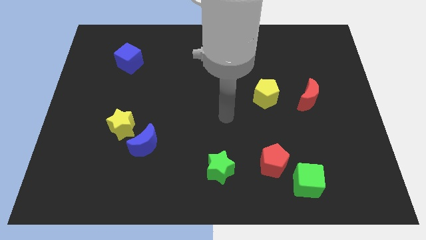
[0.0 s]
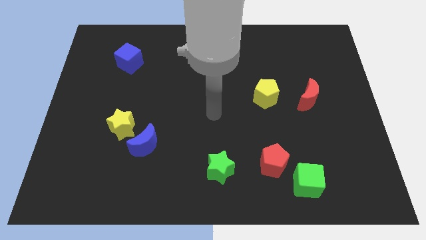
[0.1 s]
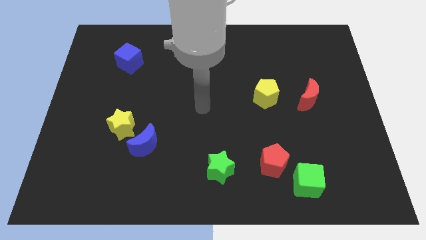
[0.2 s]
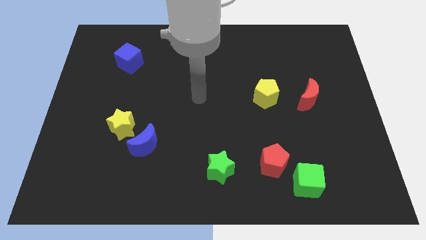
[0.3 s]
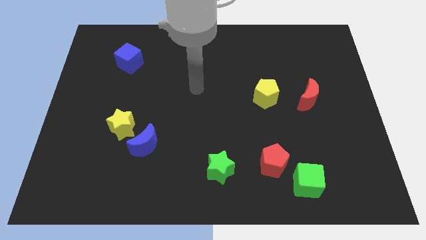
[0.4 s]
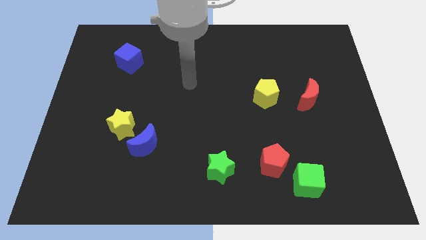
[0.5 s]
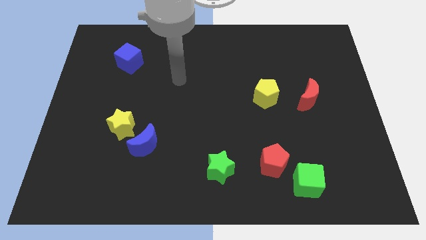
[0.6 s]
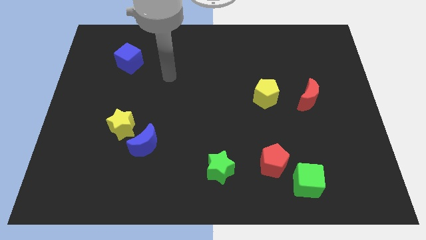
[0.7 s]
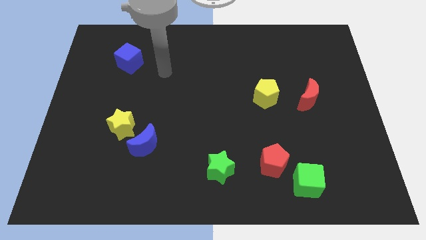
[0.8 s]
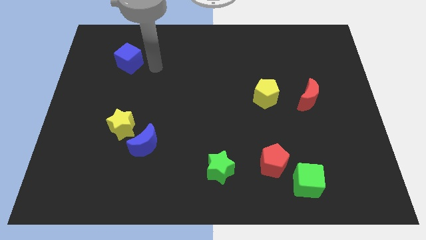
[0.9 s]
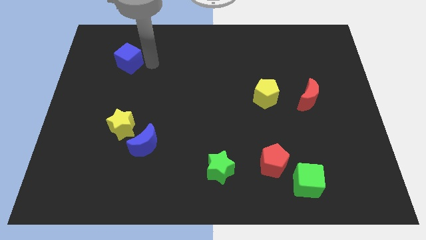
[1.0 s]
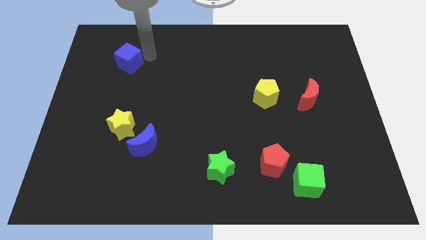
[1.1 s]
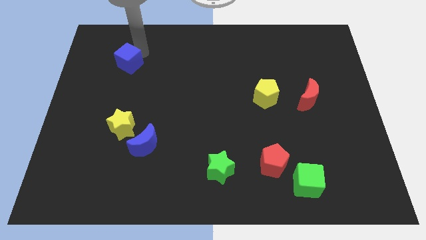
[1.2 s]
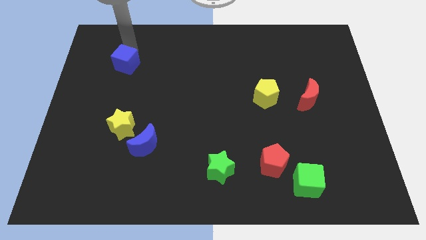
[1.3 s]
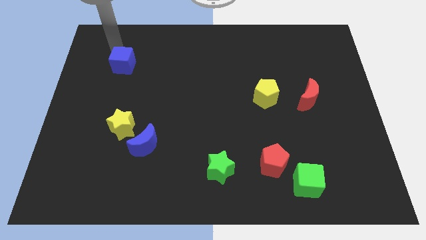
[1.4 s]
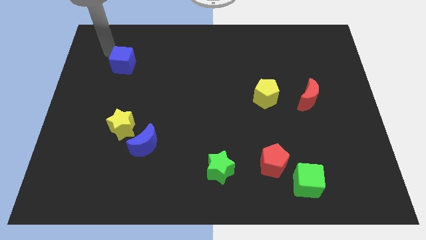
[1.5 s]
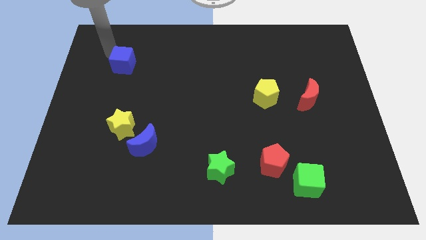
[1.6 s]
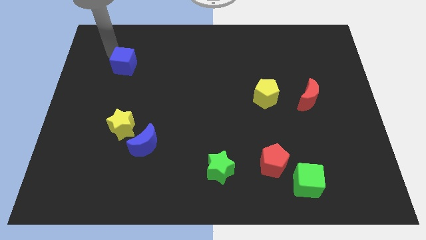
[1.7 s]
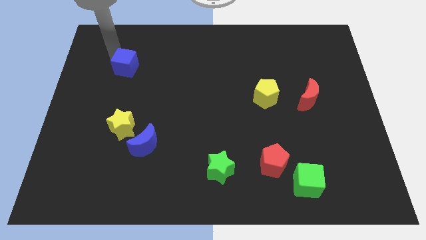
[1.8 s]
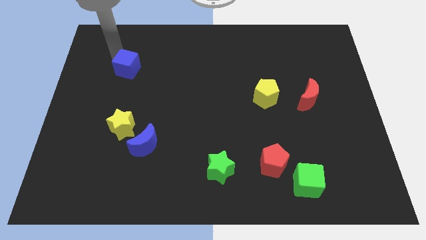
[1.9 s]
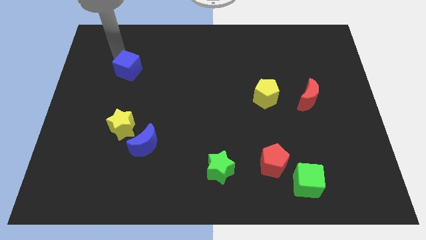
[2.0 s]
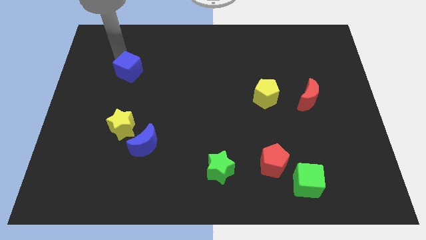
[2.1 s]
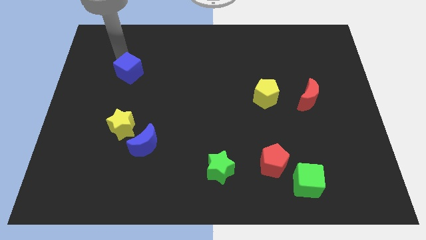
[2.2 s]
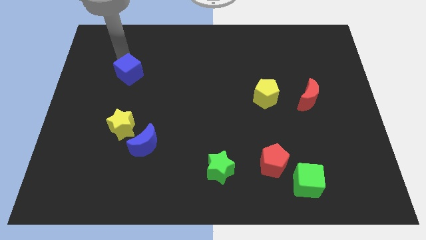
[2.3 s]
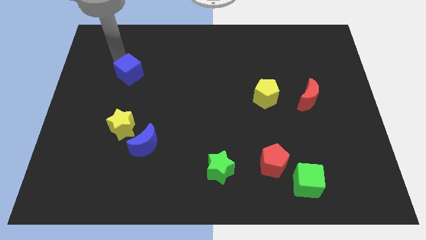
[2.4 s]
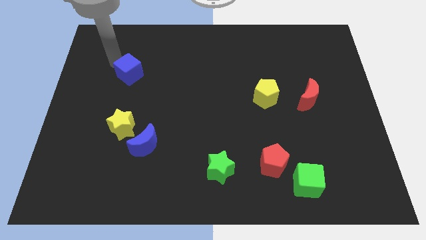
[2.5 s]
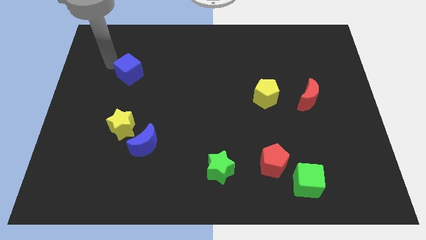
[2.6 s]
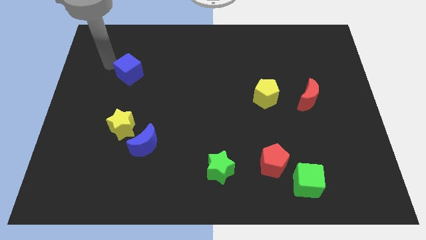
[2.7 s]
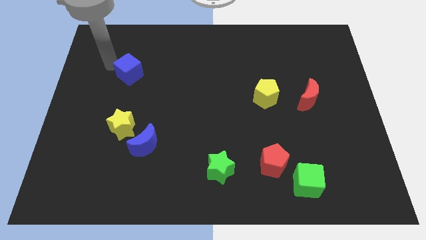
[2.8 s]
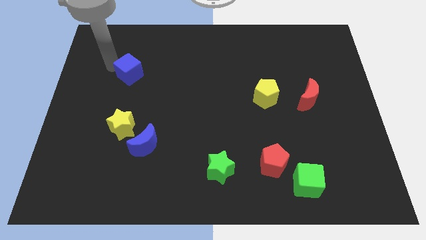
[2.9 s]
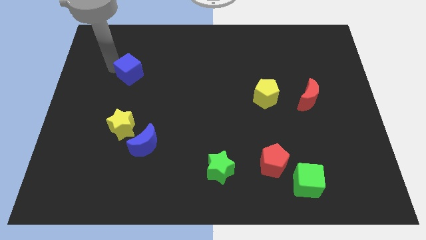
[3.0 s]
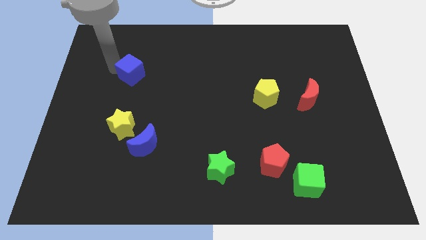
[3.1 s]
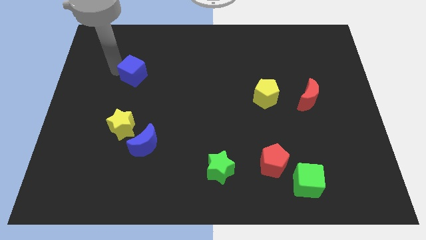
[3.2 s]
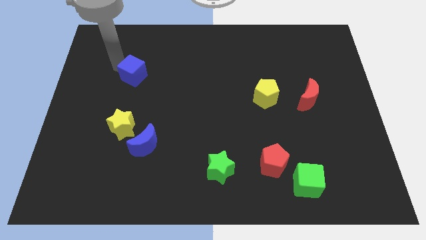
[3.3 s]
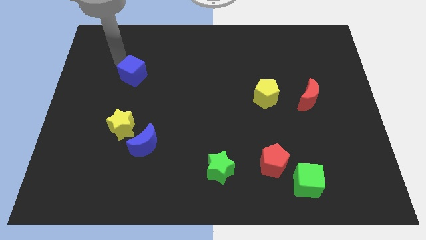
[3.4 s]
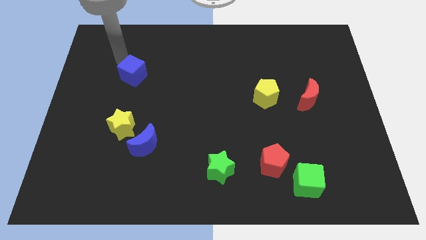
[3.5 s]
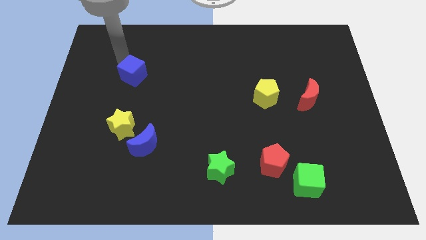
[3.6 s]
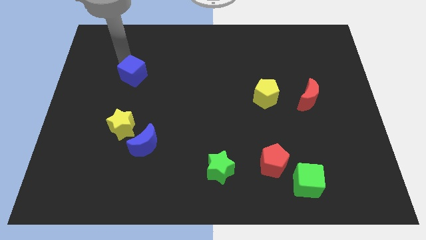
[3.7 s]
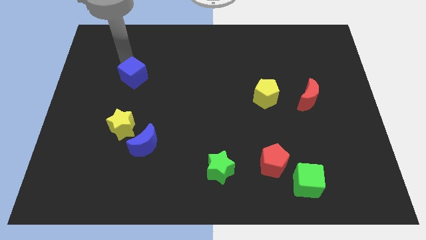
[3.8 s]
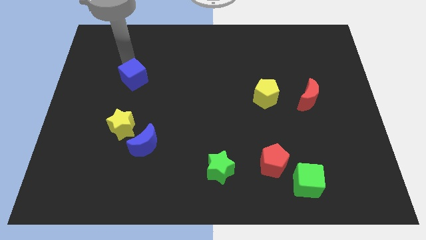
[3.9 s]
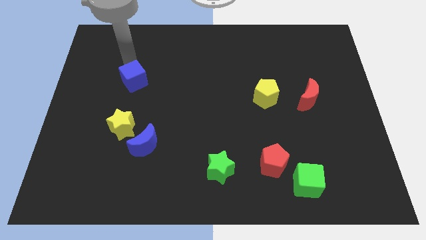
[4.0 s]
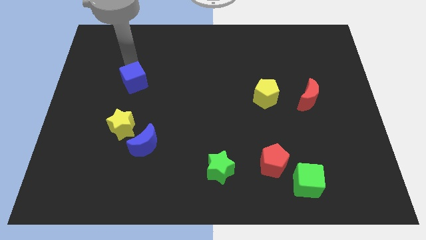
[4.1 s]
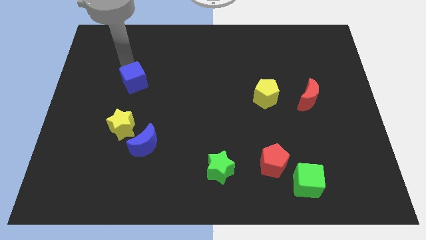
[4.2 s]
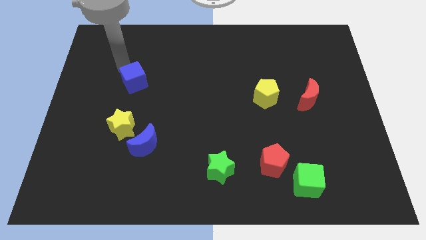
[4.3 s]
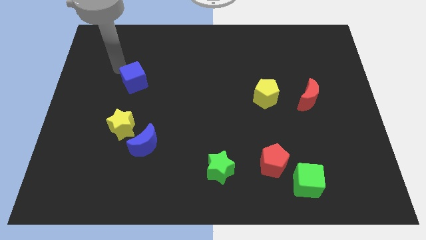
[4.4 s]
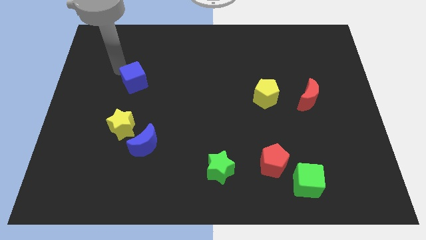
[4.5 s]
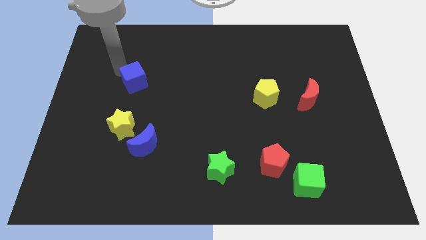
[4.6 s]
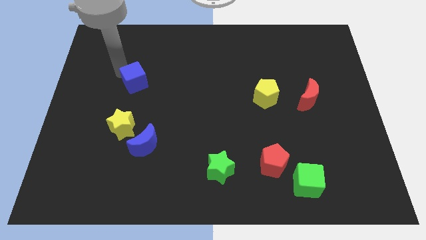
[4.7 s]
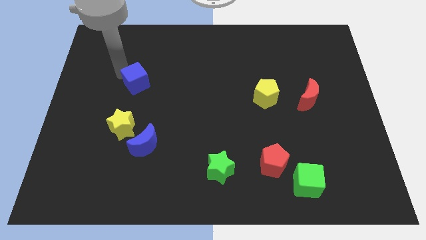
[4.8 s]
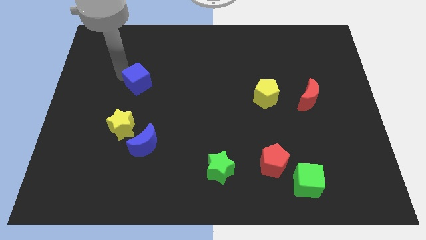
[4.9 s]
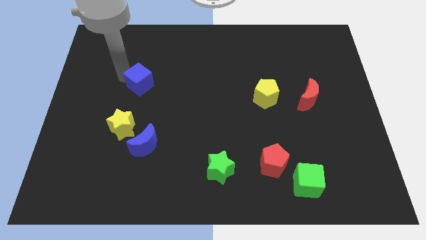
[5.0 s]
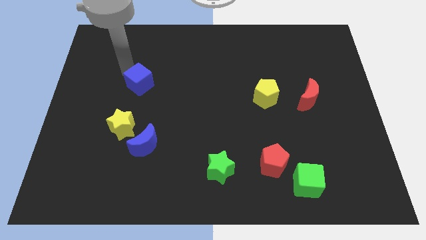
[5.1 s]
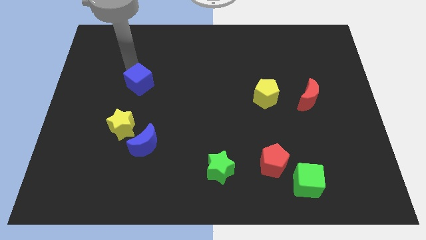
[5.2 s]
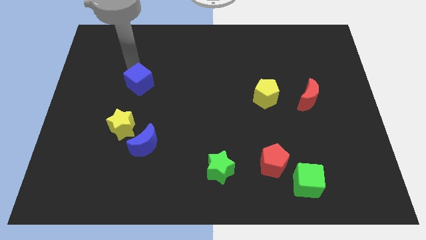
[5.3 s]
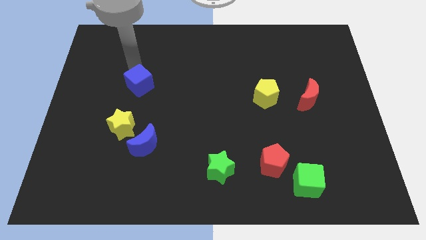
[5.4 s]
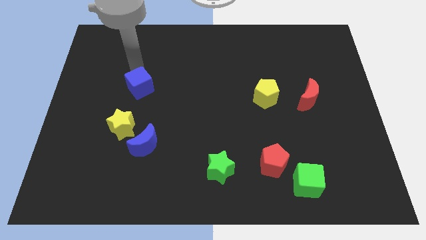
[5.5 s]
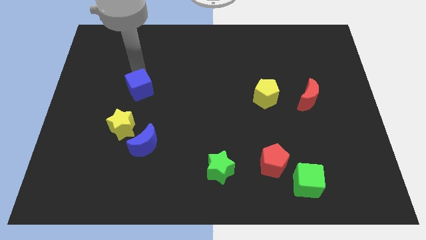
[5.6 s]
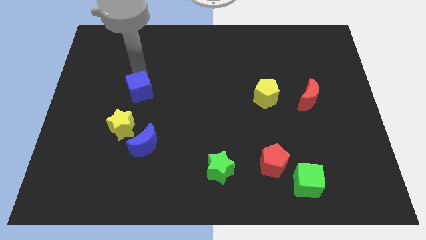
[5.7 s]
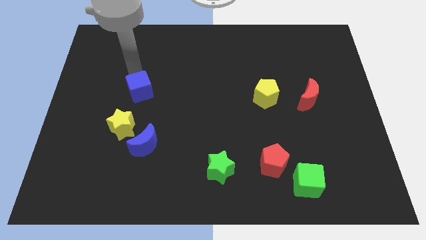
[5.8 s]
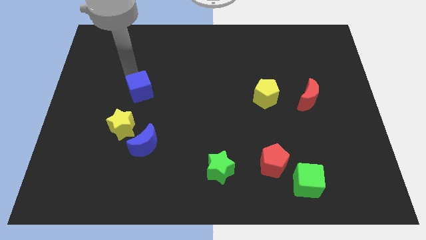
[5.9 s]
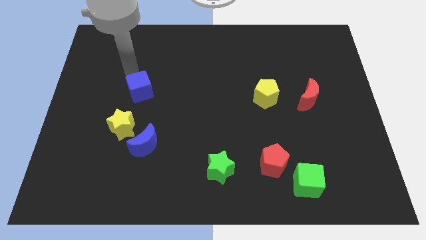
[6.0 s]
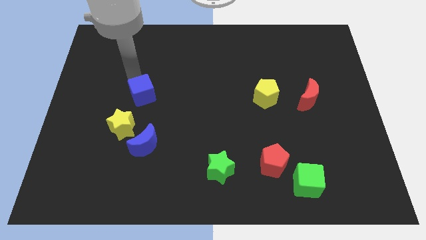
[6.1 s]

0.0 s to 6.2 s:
put the blue cube above the blue moon

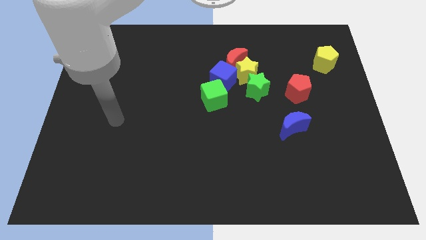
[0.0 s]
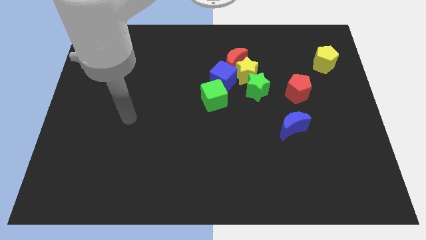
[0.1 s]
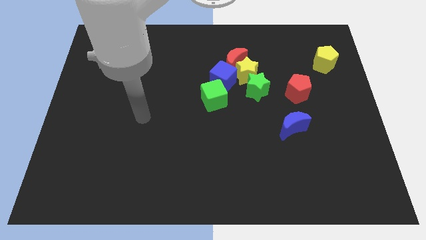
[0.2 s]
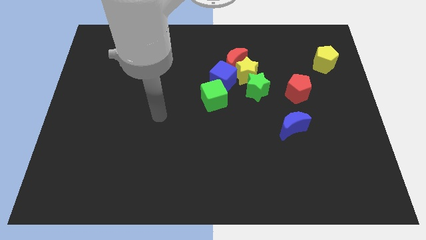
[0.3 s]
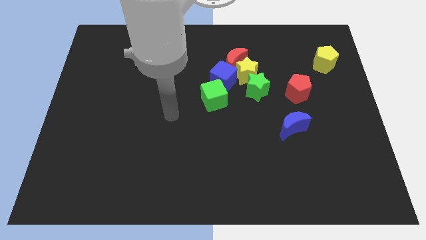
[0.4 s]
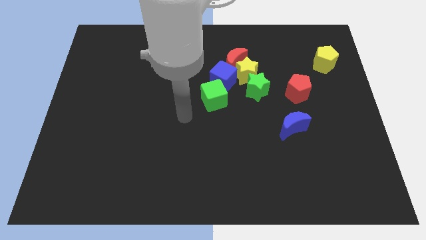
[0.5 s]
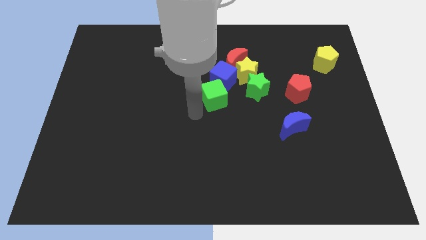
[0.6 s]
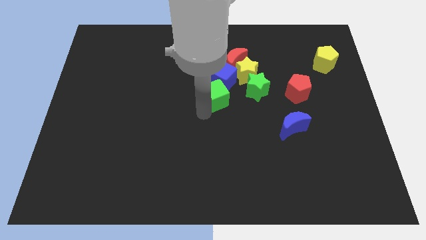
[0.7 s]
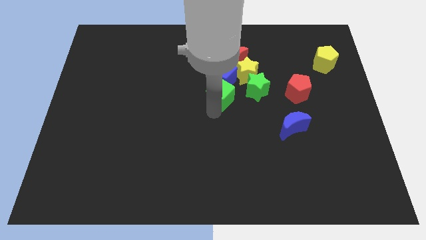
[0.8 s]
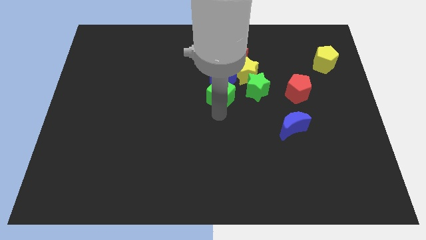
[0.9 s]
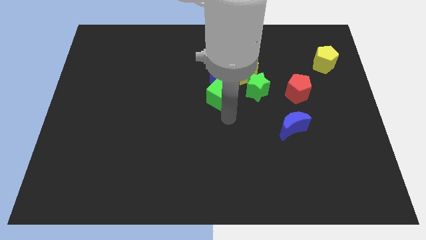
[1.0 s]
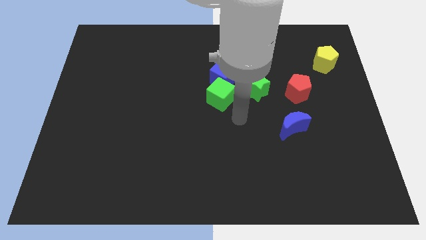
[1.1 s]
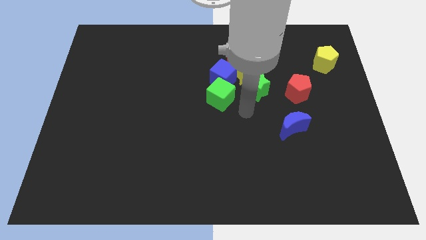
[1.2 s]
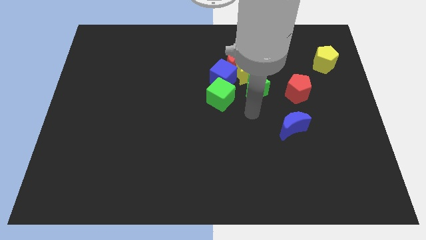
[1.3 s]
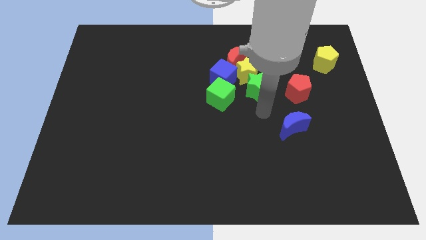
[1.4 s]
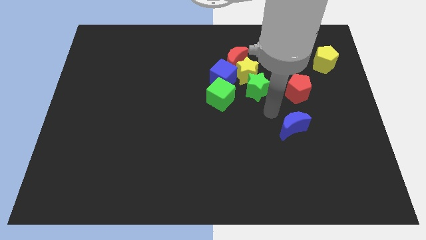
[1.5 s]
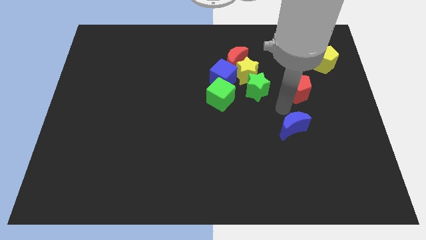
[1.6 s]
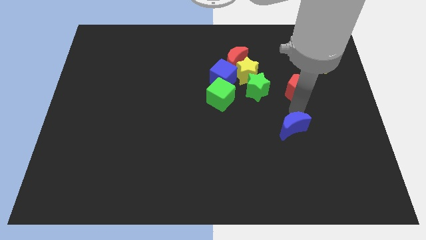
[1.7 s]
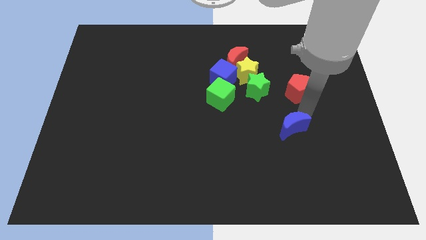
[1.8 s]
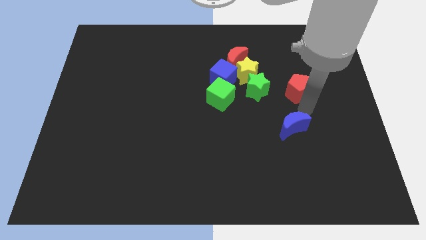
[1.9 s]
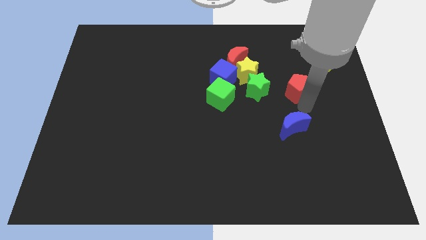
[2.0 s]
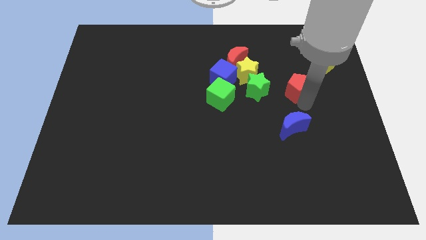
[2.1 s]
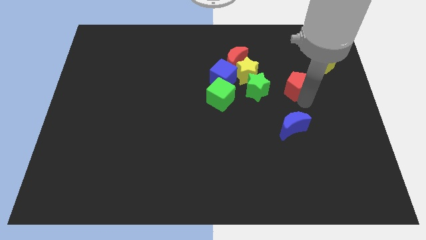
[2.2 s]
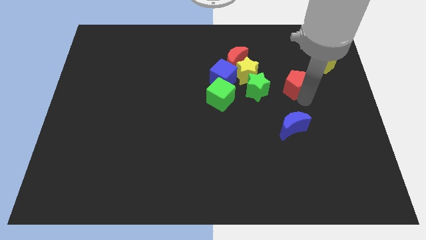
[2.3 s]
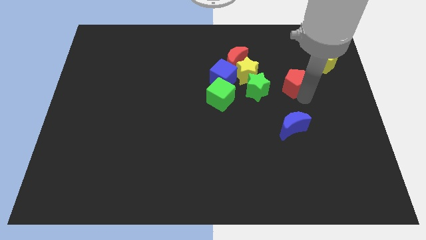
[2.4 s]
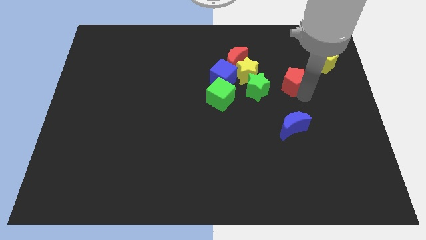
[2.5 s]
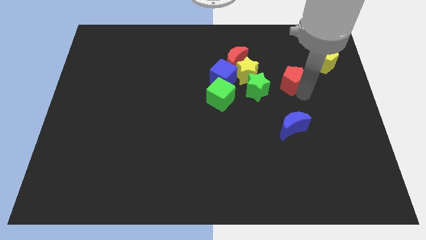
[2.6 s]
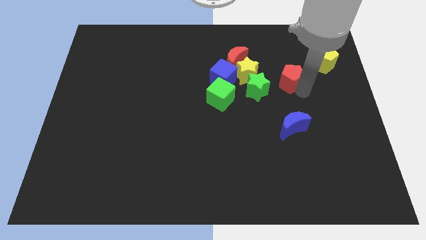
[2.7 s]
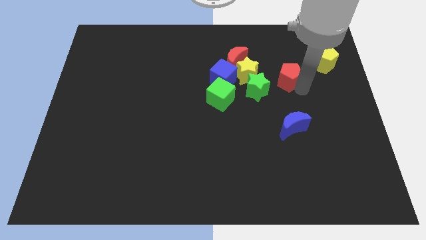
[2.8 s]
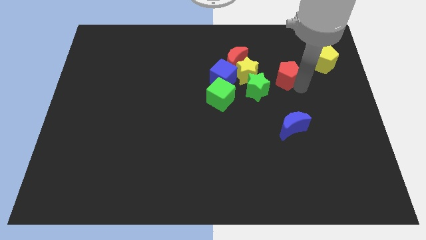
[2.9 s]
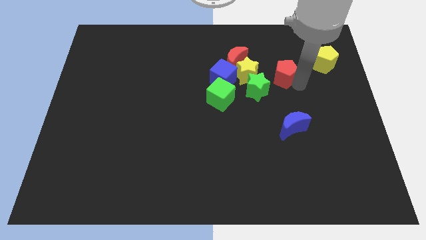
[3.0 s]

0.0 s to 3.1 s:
slide the red pentagon left of the yellow pentagon
